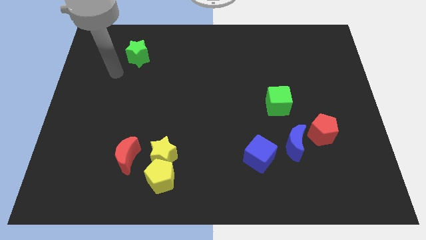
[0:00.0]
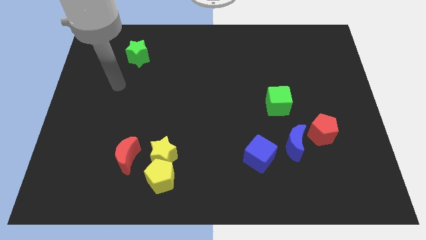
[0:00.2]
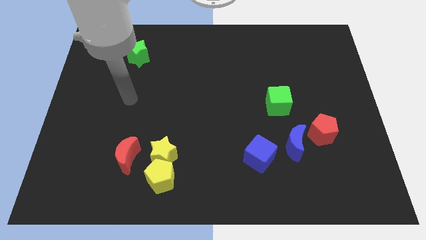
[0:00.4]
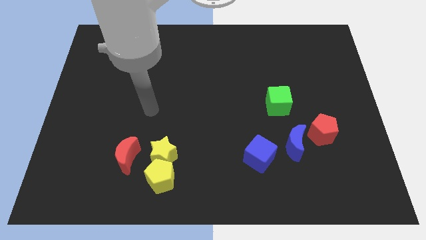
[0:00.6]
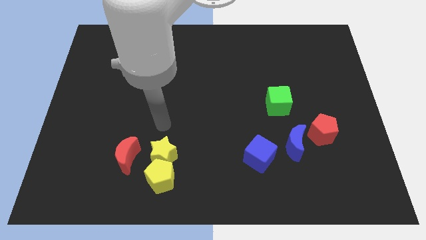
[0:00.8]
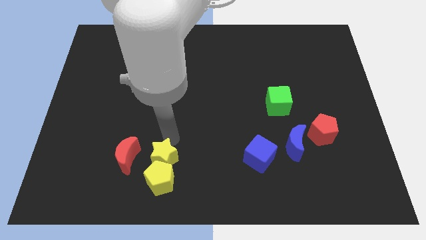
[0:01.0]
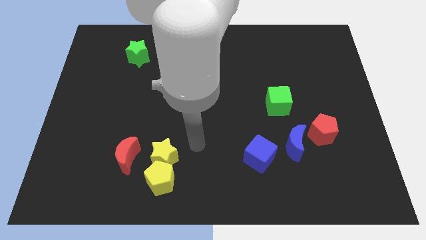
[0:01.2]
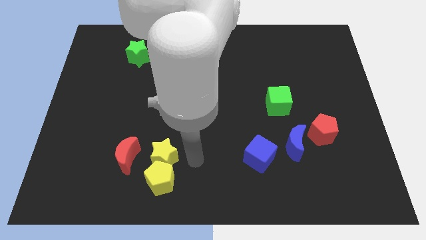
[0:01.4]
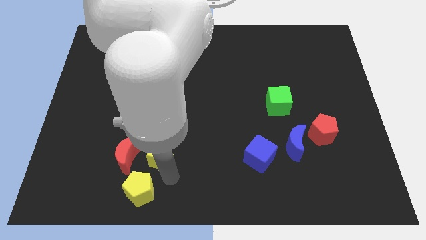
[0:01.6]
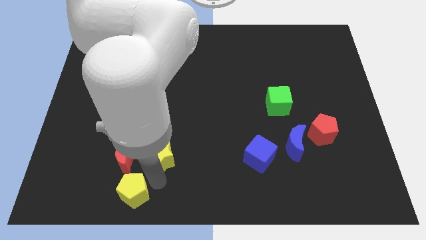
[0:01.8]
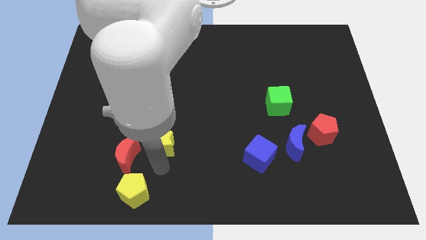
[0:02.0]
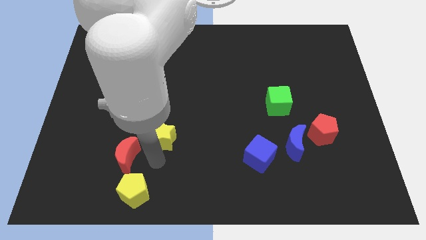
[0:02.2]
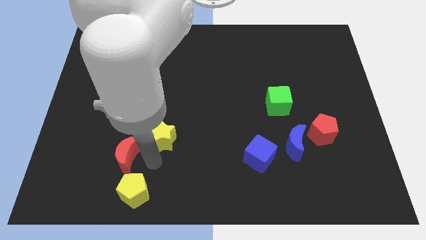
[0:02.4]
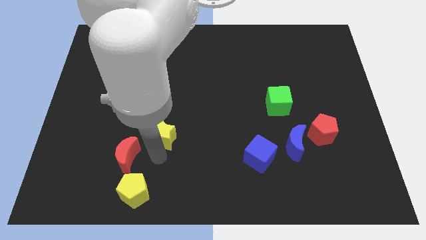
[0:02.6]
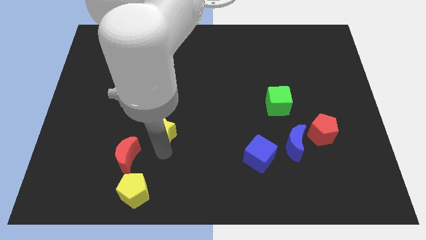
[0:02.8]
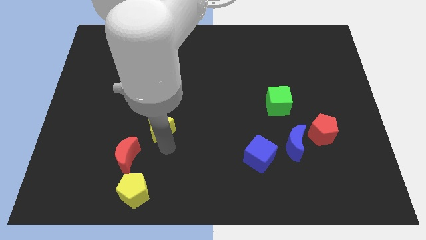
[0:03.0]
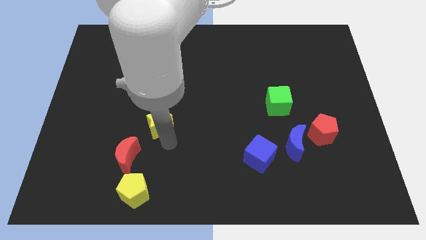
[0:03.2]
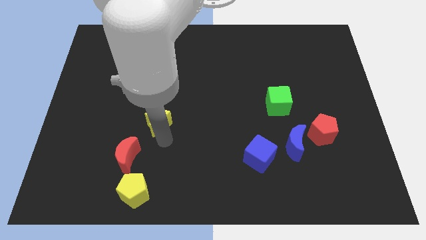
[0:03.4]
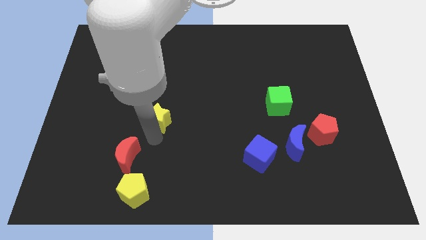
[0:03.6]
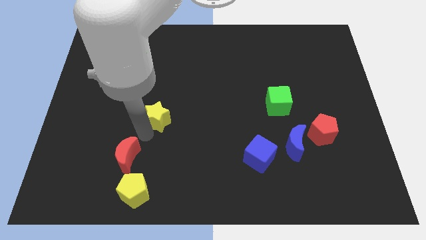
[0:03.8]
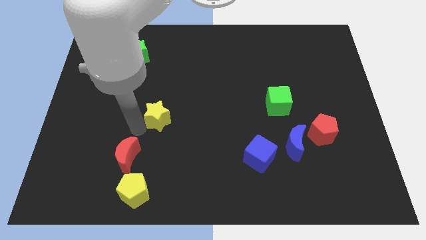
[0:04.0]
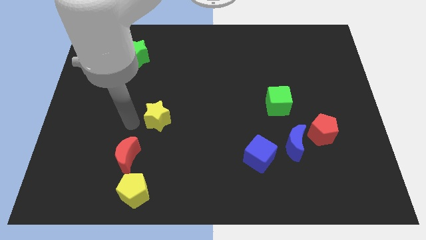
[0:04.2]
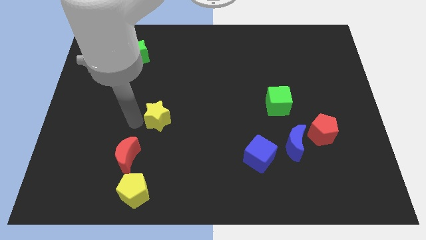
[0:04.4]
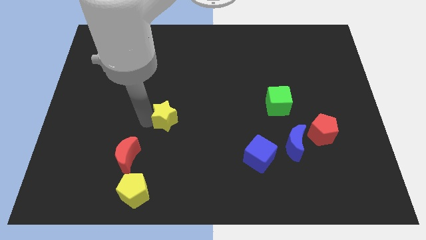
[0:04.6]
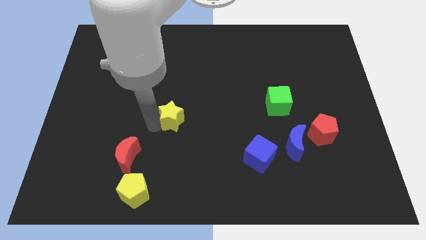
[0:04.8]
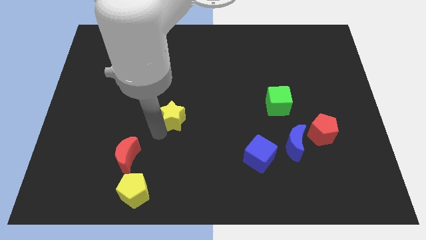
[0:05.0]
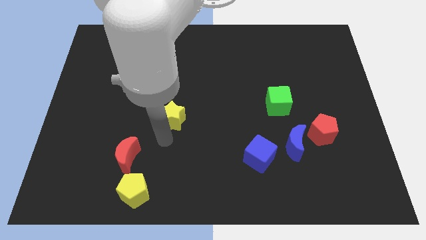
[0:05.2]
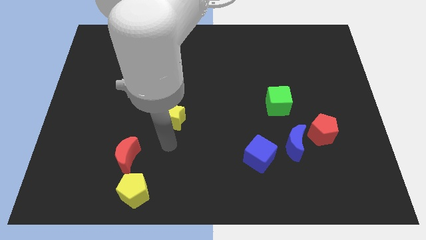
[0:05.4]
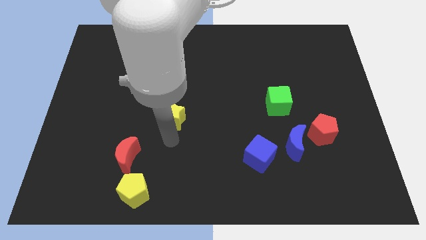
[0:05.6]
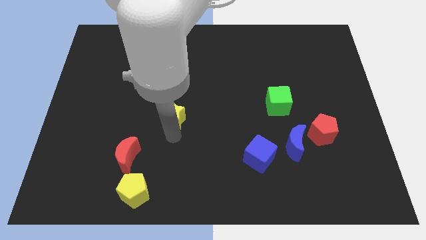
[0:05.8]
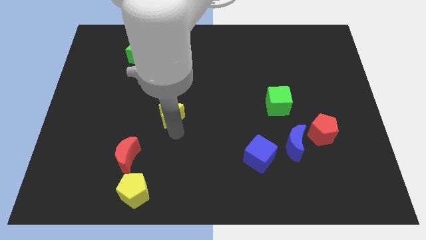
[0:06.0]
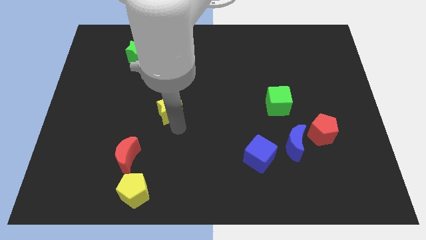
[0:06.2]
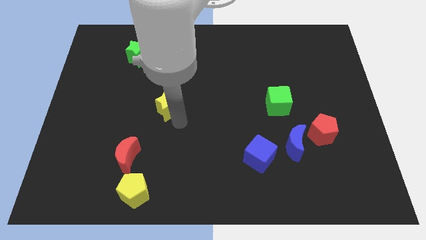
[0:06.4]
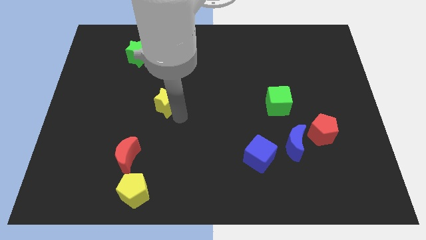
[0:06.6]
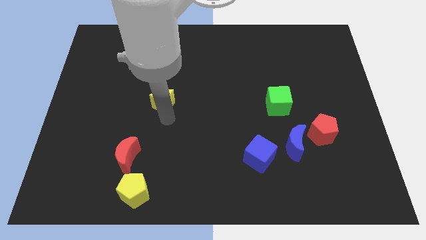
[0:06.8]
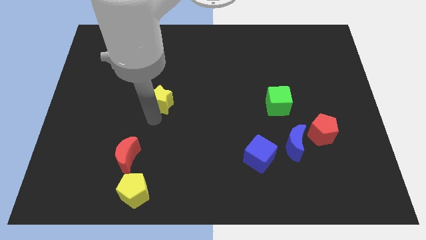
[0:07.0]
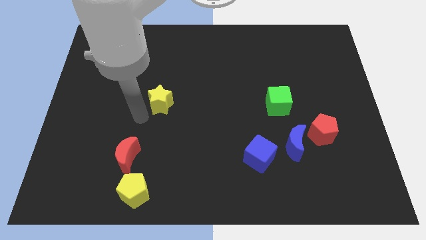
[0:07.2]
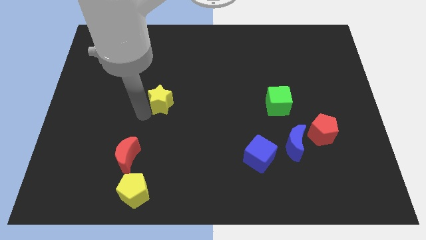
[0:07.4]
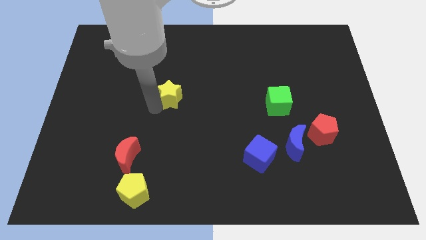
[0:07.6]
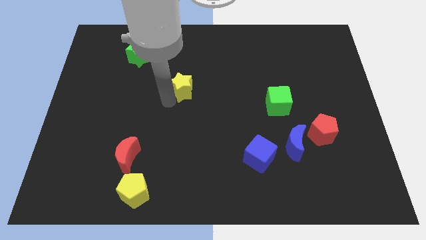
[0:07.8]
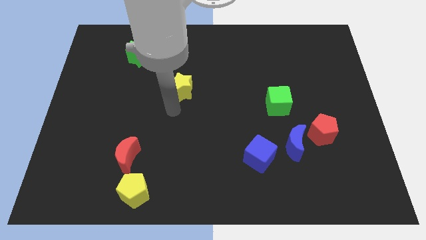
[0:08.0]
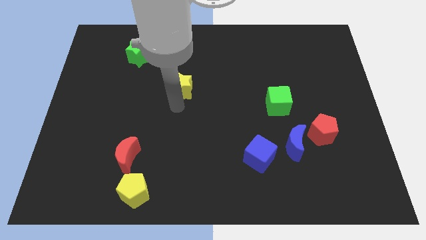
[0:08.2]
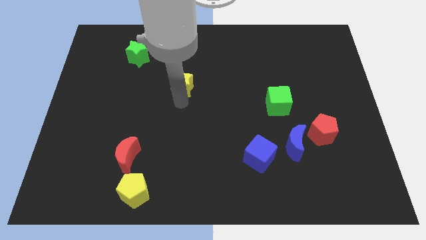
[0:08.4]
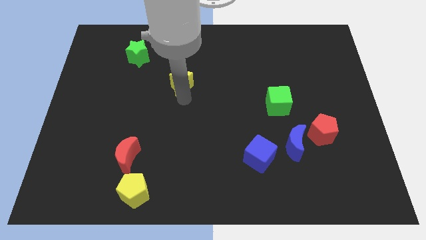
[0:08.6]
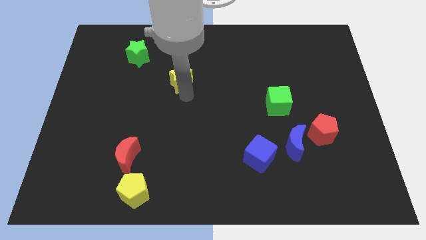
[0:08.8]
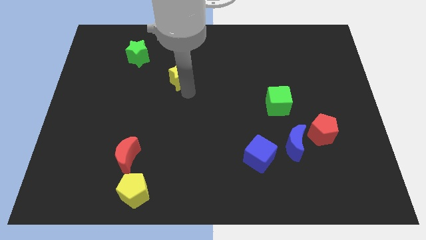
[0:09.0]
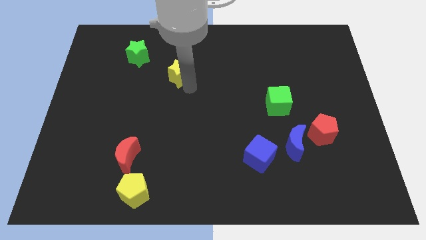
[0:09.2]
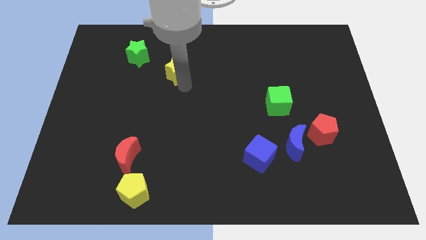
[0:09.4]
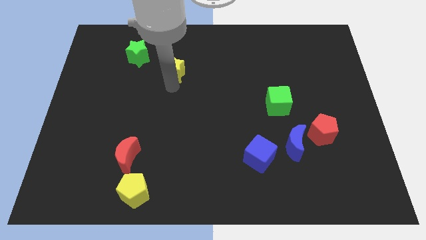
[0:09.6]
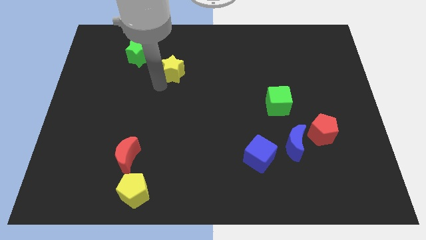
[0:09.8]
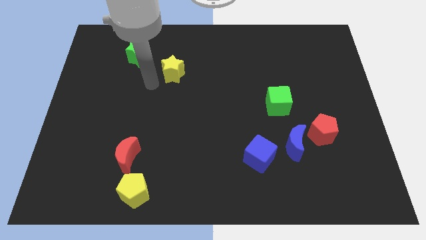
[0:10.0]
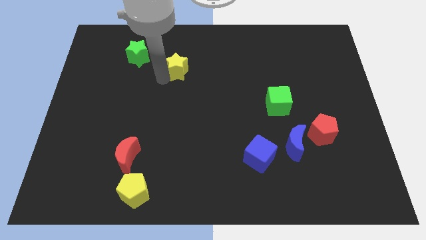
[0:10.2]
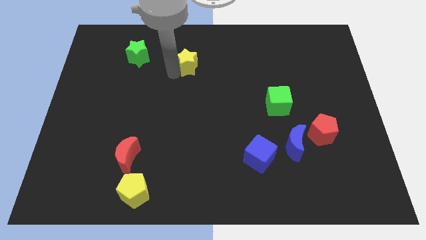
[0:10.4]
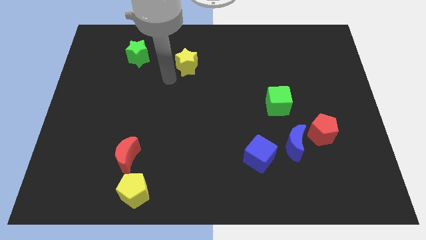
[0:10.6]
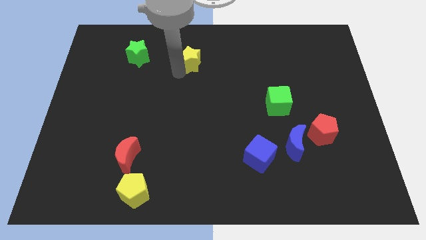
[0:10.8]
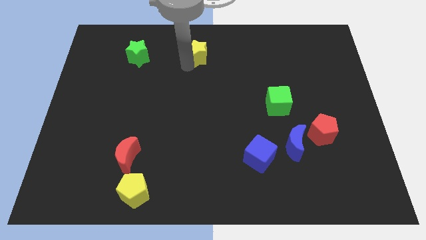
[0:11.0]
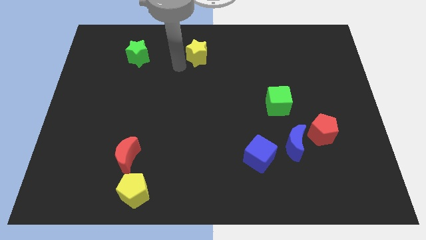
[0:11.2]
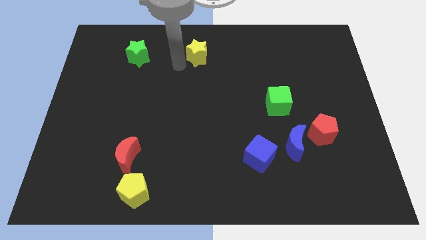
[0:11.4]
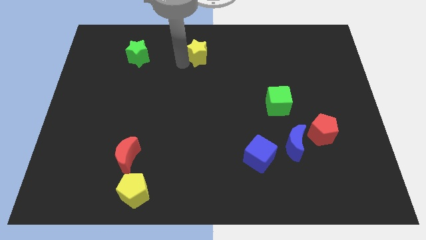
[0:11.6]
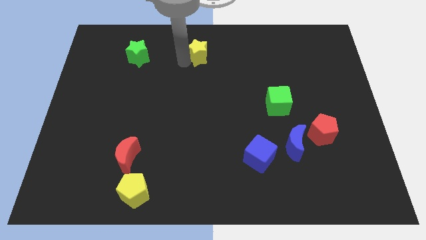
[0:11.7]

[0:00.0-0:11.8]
put the yellow star to the top side
